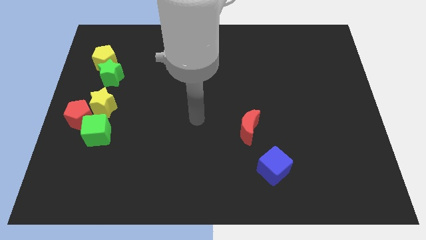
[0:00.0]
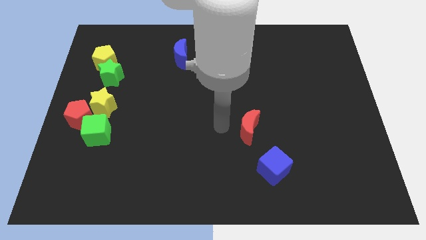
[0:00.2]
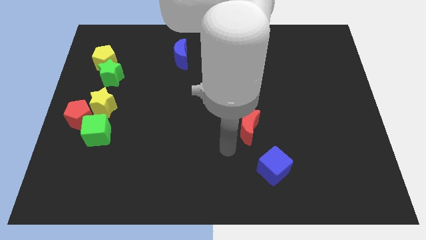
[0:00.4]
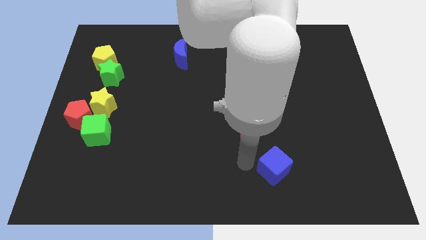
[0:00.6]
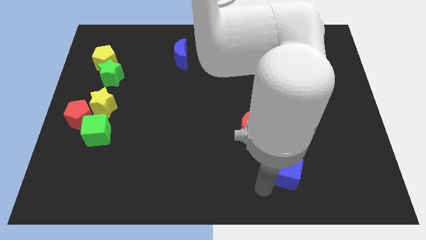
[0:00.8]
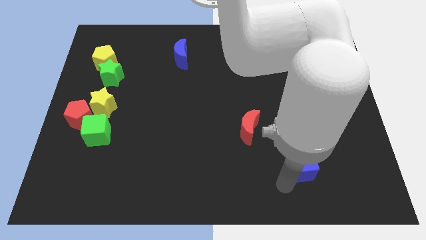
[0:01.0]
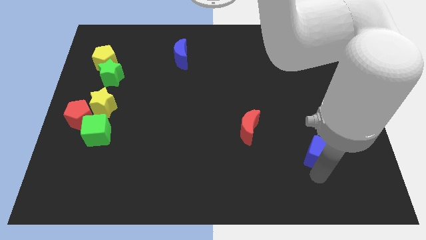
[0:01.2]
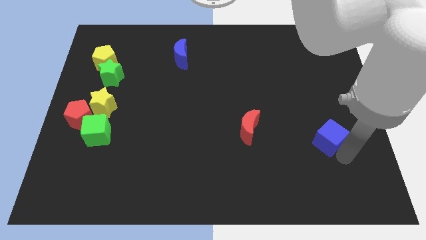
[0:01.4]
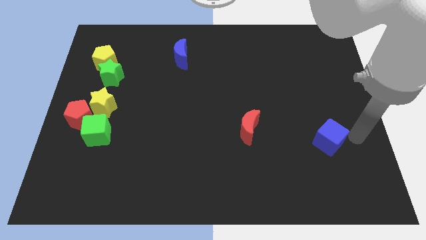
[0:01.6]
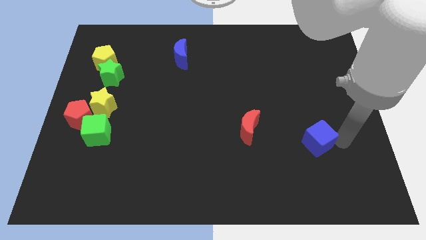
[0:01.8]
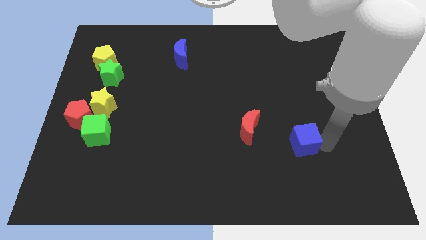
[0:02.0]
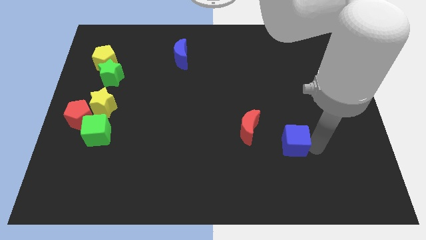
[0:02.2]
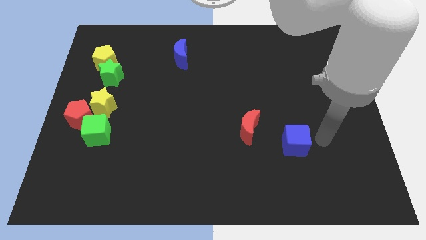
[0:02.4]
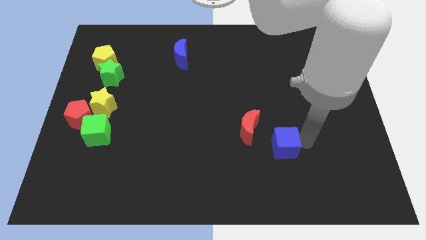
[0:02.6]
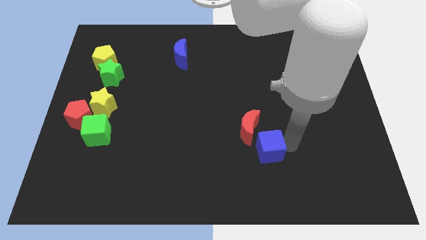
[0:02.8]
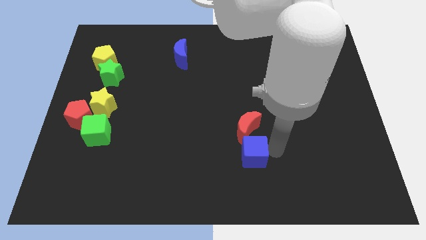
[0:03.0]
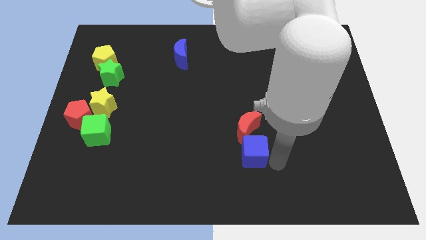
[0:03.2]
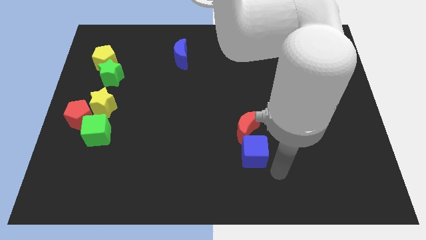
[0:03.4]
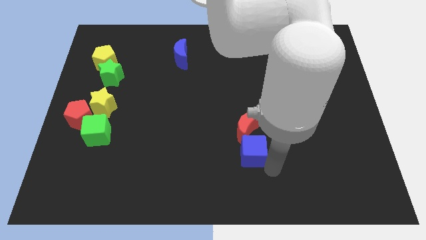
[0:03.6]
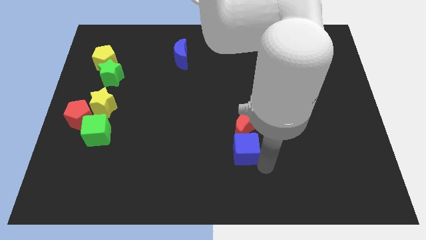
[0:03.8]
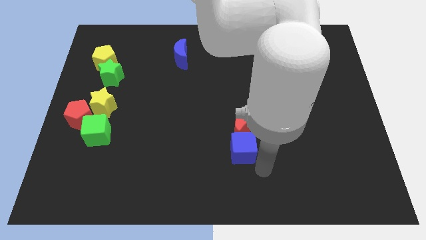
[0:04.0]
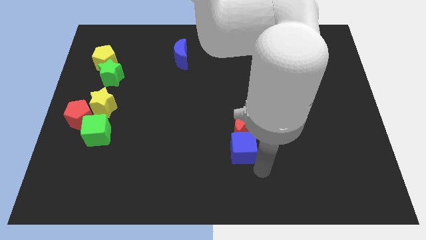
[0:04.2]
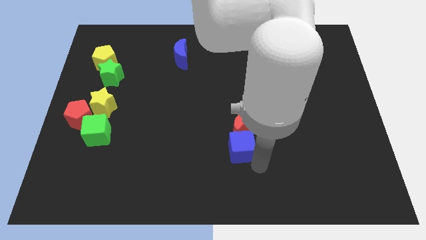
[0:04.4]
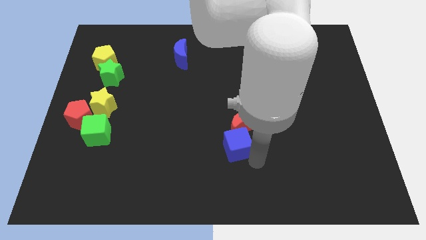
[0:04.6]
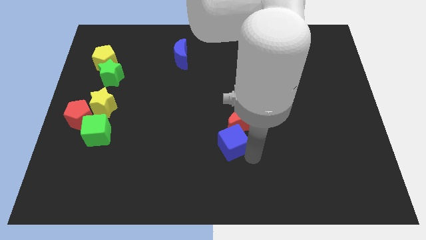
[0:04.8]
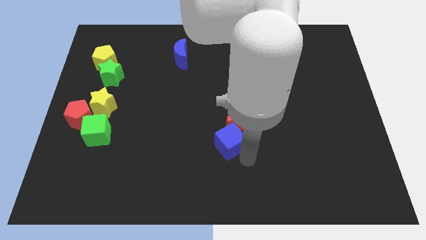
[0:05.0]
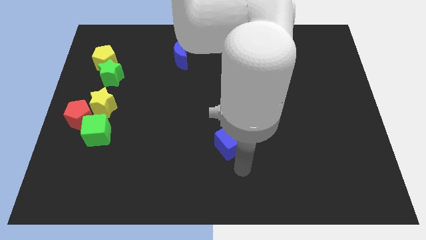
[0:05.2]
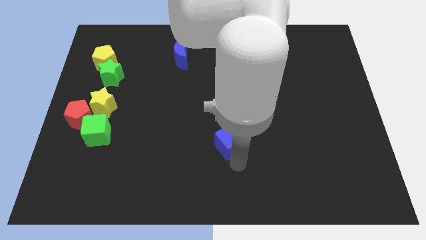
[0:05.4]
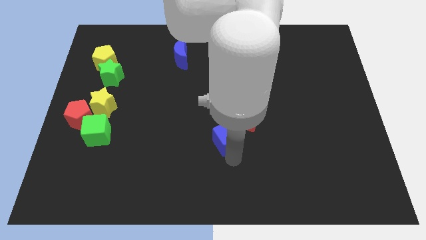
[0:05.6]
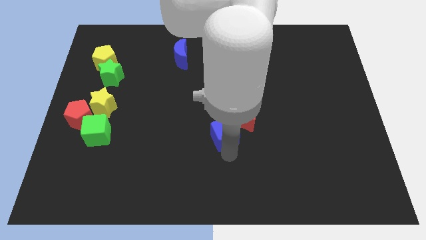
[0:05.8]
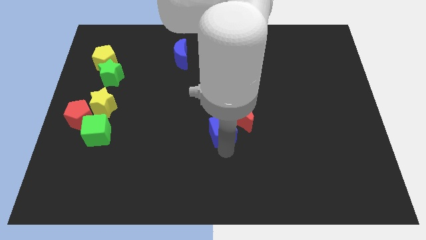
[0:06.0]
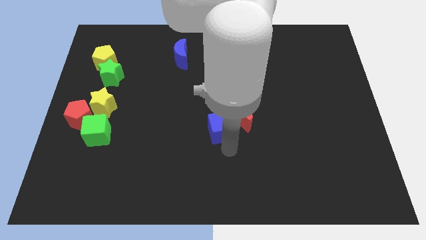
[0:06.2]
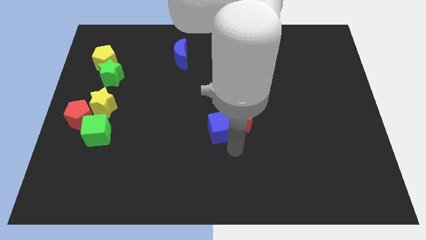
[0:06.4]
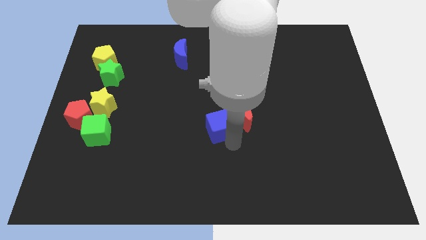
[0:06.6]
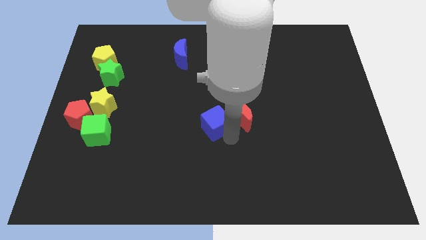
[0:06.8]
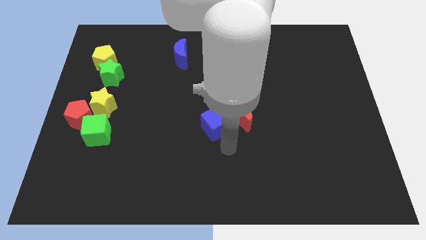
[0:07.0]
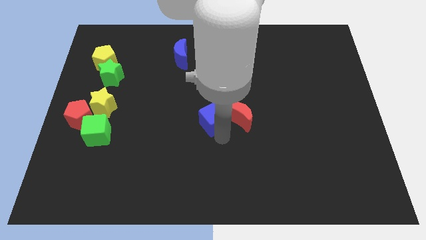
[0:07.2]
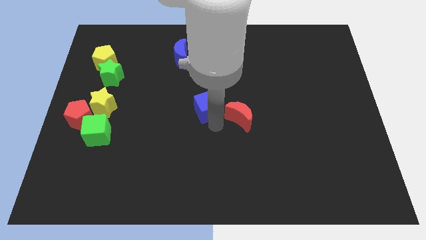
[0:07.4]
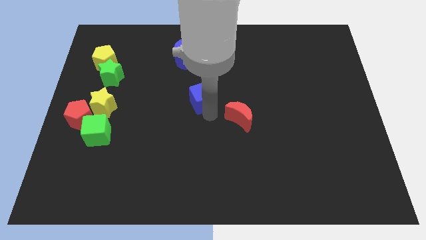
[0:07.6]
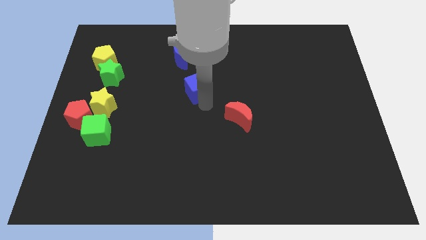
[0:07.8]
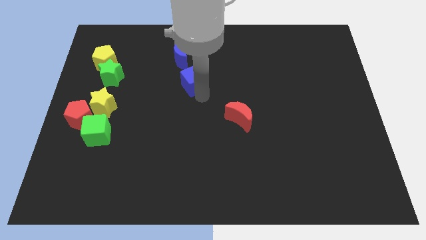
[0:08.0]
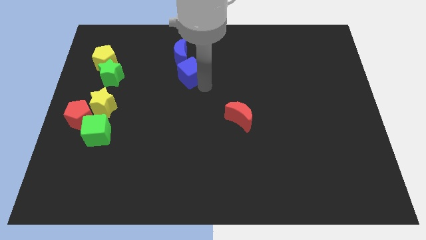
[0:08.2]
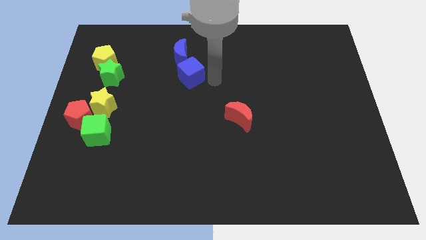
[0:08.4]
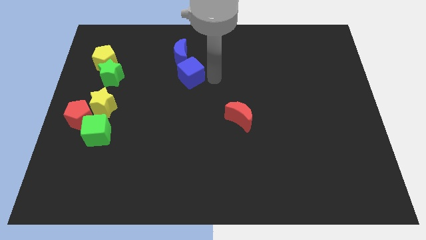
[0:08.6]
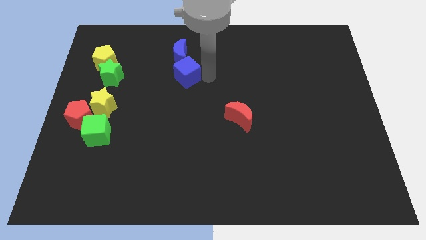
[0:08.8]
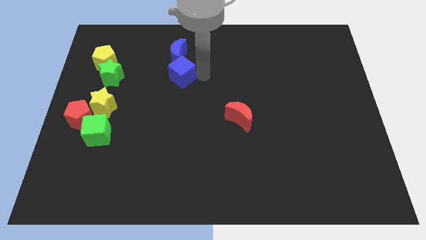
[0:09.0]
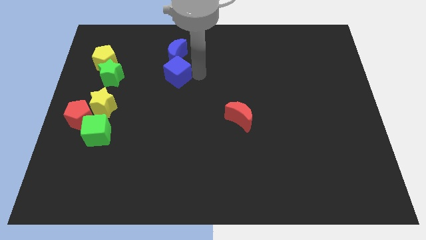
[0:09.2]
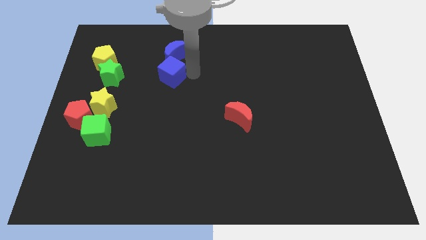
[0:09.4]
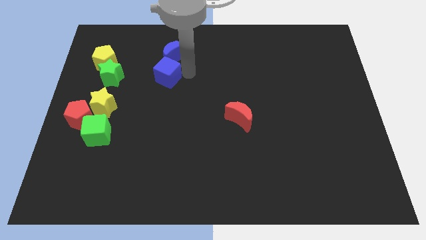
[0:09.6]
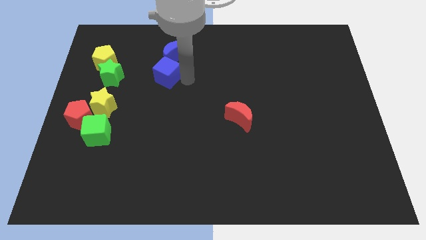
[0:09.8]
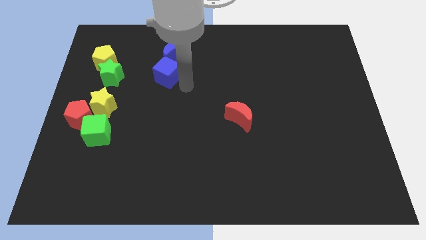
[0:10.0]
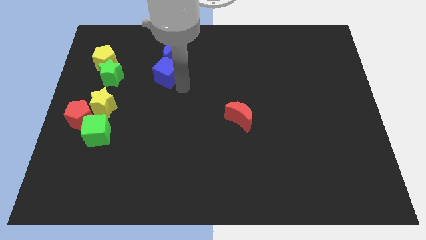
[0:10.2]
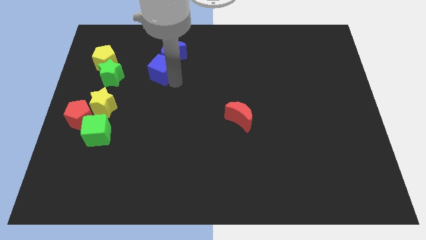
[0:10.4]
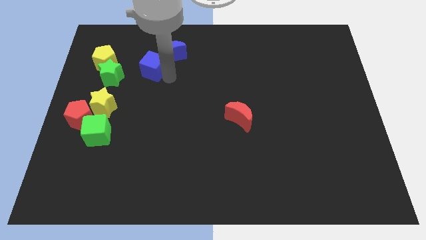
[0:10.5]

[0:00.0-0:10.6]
put the blue cube to the left of the blue moon

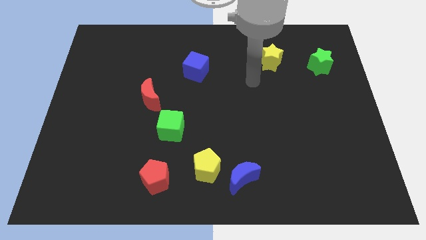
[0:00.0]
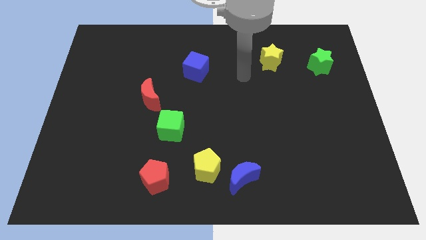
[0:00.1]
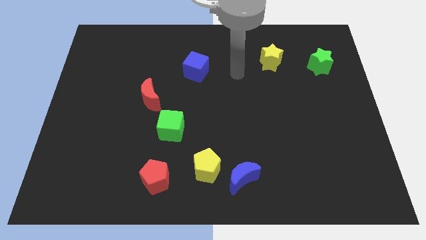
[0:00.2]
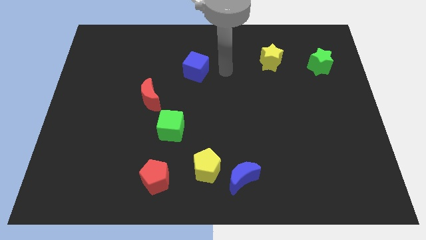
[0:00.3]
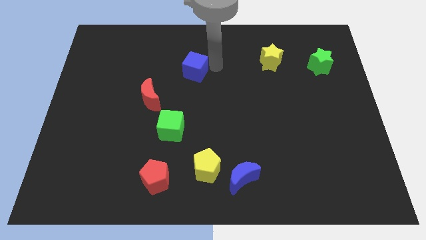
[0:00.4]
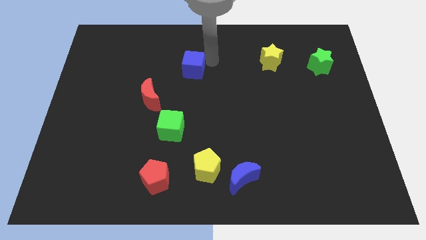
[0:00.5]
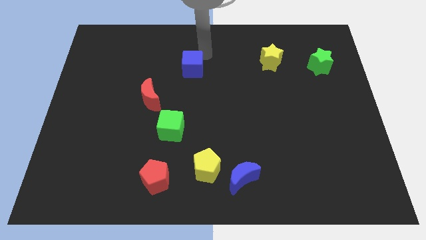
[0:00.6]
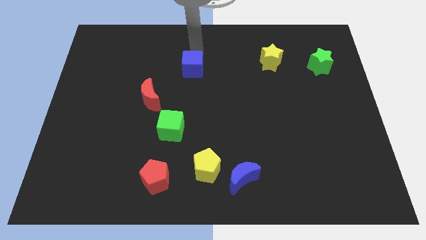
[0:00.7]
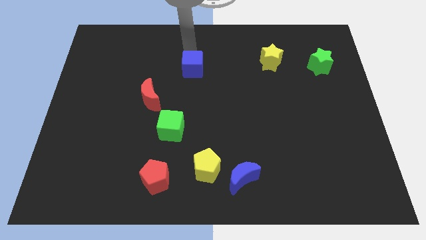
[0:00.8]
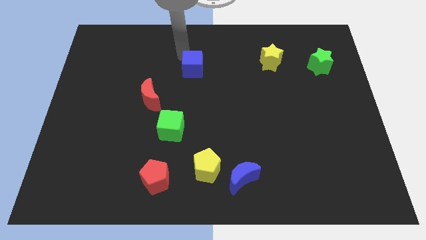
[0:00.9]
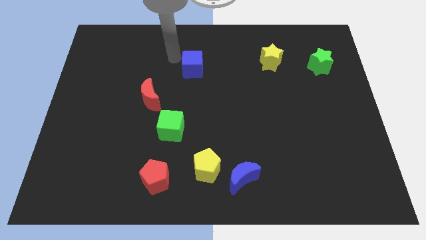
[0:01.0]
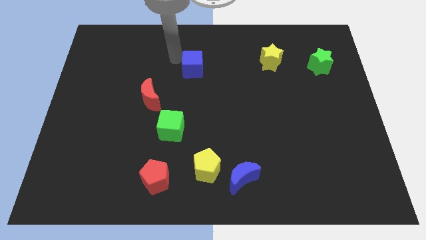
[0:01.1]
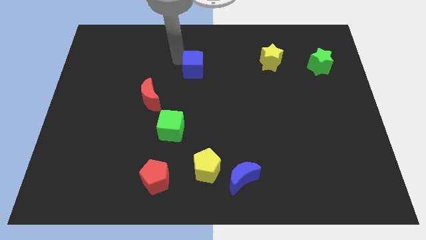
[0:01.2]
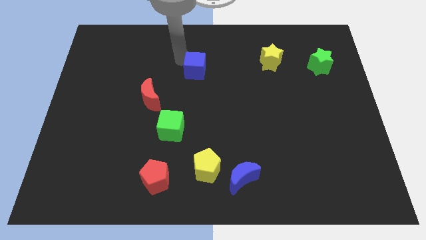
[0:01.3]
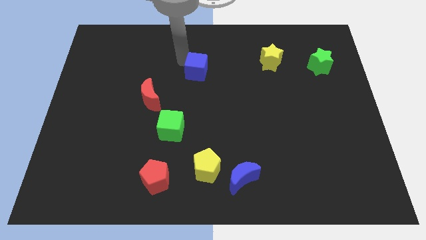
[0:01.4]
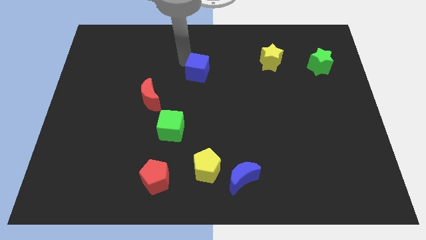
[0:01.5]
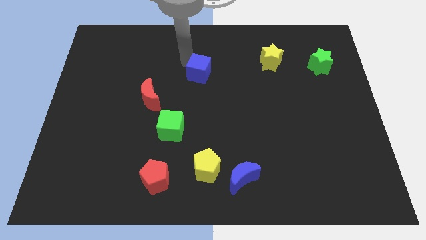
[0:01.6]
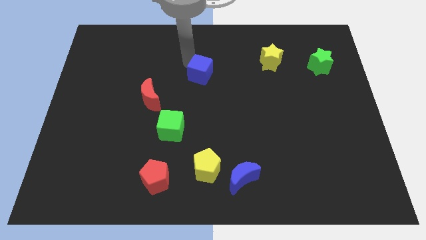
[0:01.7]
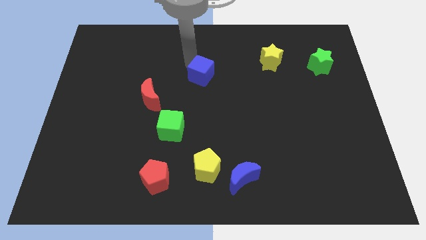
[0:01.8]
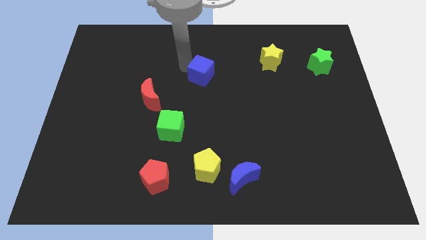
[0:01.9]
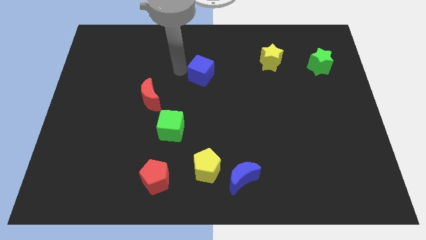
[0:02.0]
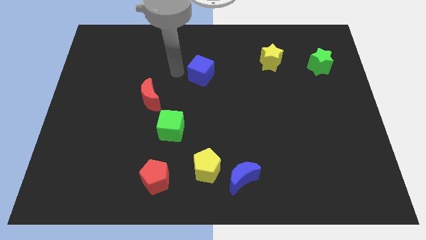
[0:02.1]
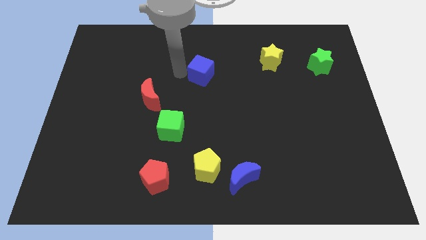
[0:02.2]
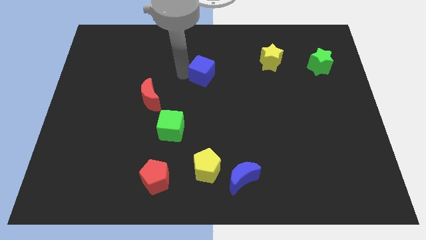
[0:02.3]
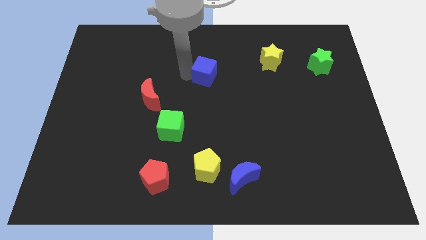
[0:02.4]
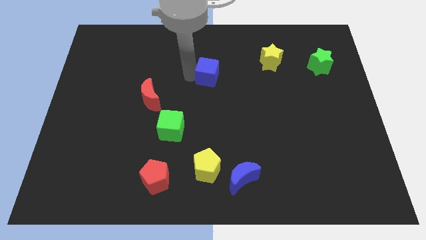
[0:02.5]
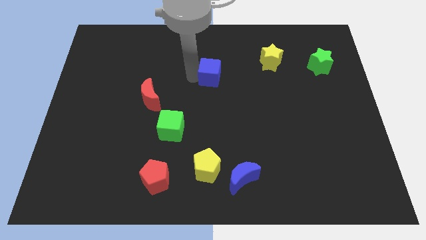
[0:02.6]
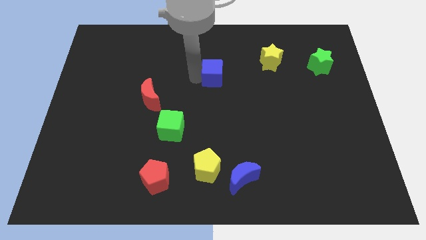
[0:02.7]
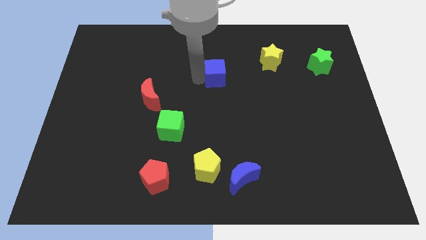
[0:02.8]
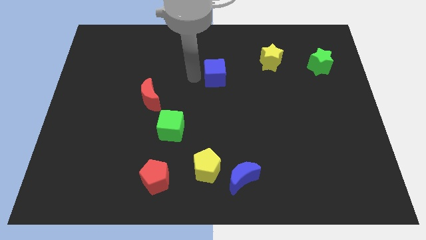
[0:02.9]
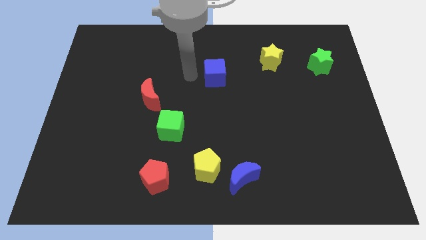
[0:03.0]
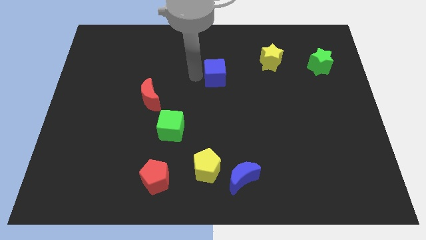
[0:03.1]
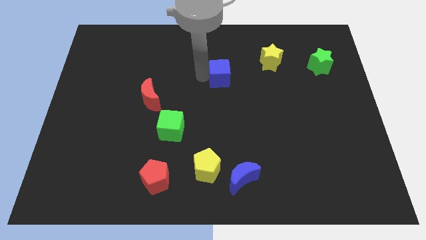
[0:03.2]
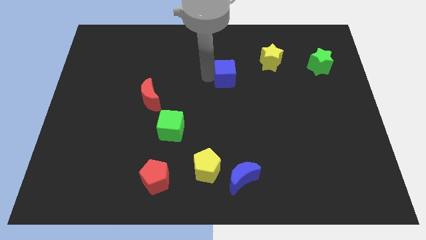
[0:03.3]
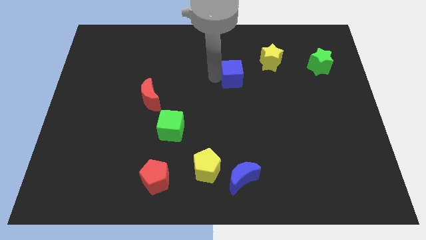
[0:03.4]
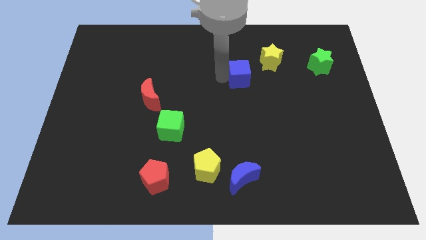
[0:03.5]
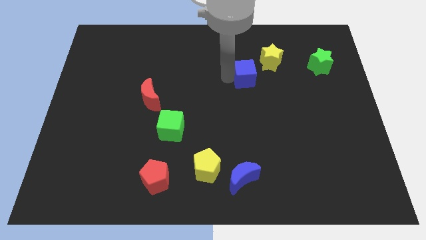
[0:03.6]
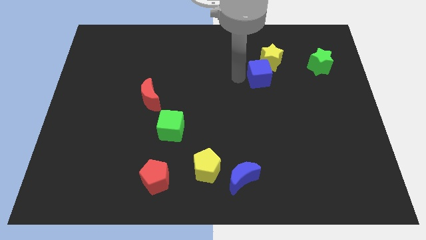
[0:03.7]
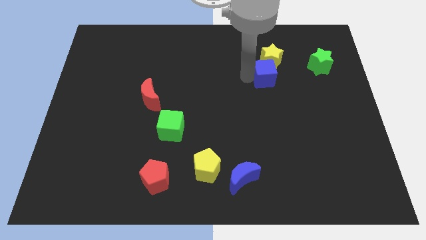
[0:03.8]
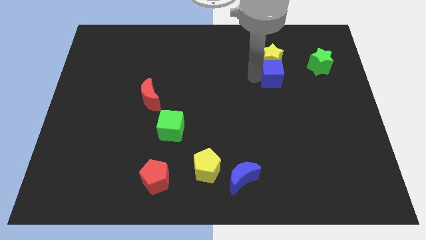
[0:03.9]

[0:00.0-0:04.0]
slide the blue cube to the bottom right side of the yellow star
